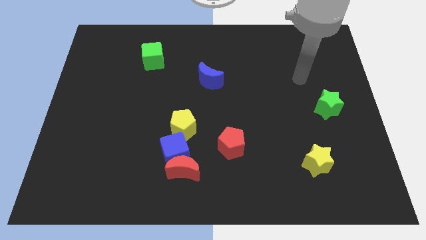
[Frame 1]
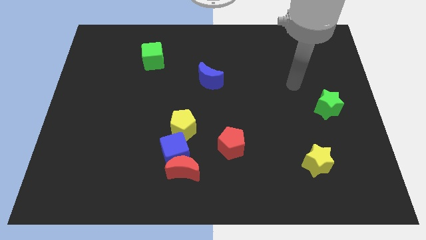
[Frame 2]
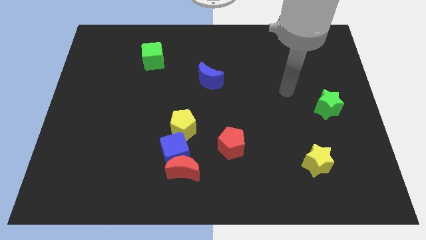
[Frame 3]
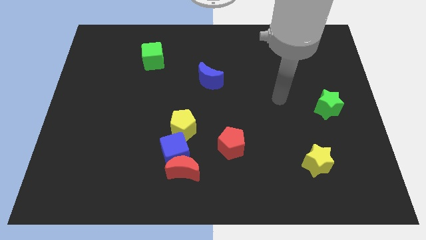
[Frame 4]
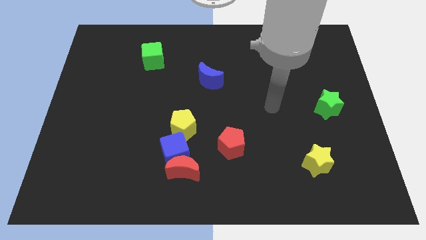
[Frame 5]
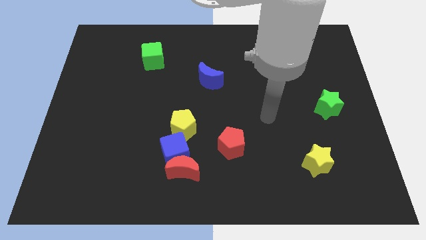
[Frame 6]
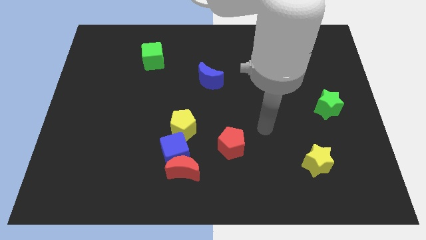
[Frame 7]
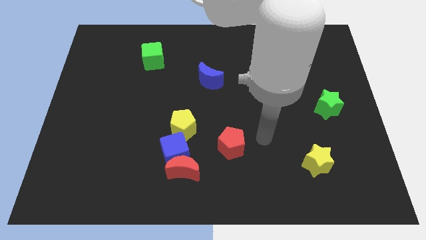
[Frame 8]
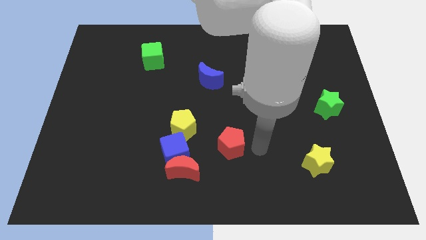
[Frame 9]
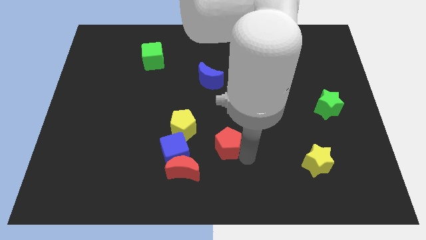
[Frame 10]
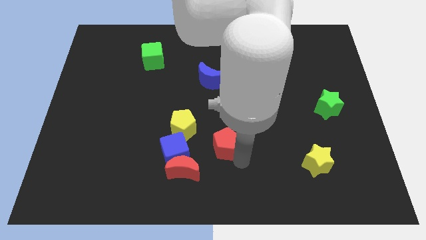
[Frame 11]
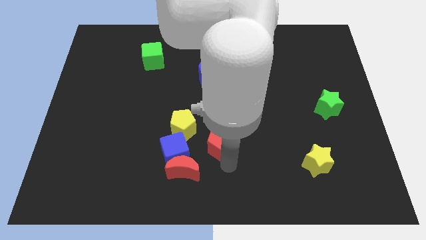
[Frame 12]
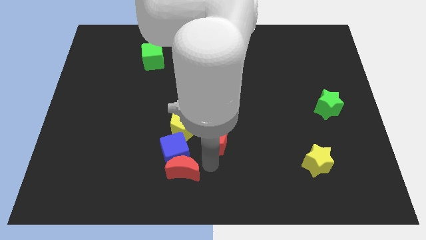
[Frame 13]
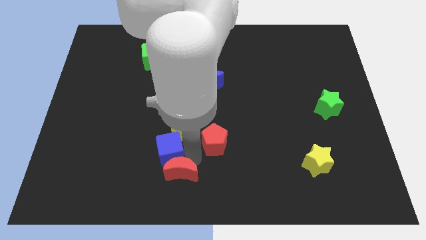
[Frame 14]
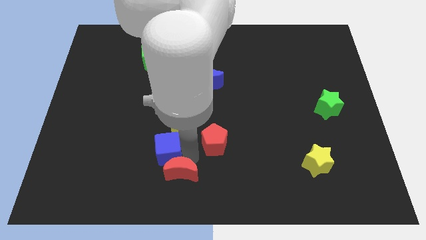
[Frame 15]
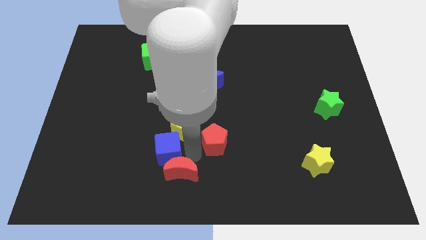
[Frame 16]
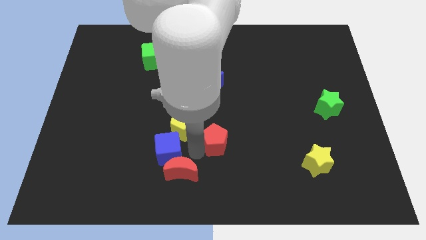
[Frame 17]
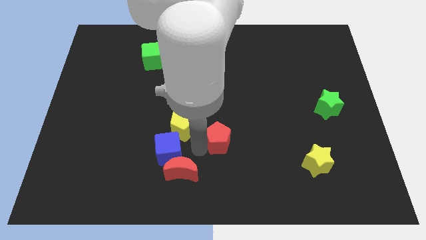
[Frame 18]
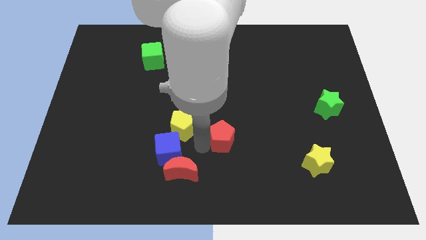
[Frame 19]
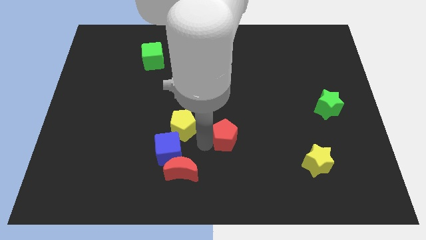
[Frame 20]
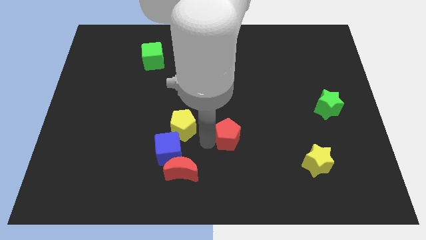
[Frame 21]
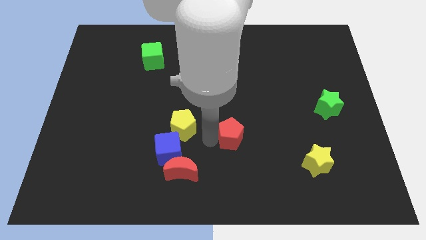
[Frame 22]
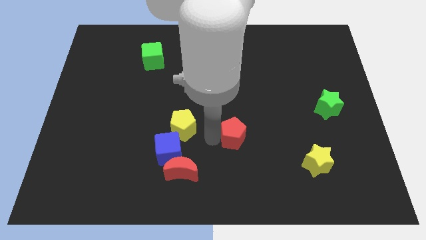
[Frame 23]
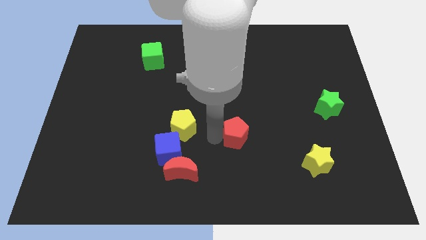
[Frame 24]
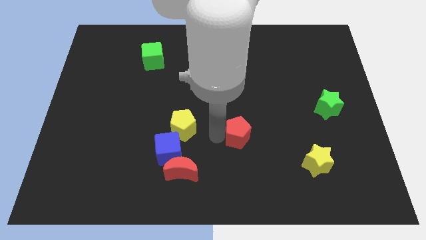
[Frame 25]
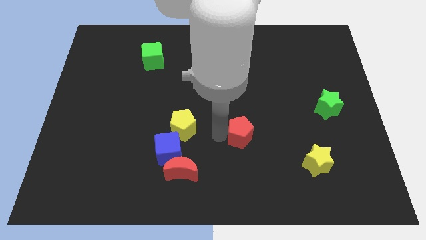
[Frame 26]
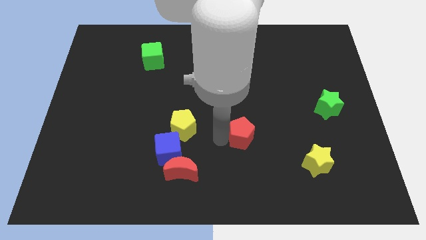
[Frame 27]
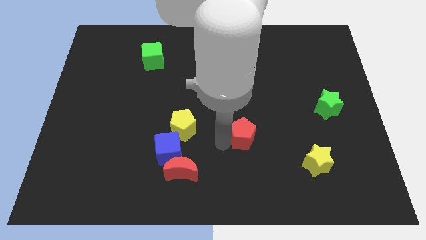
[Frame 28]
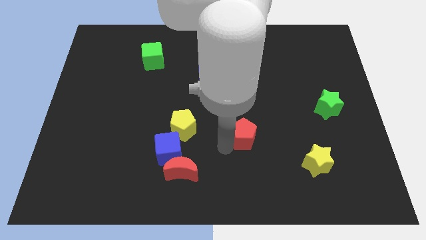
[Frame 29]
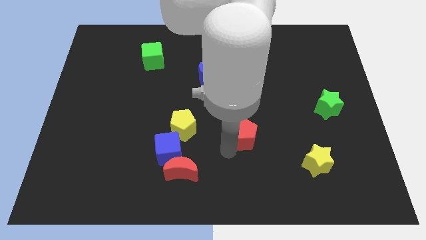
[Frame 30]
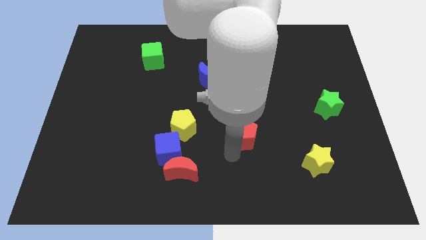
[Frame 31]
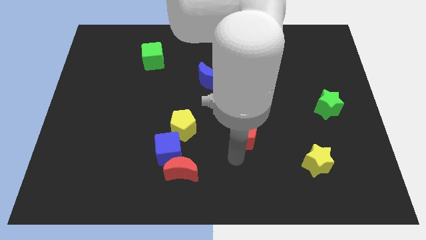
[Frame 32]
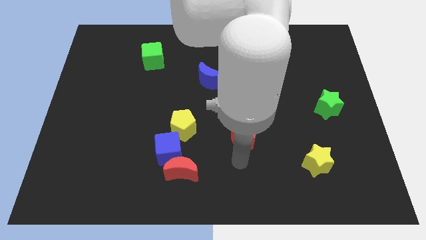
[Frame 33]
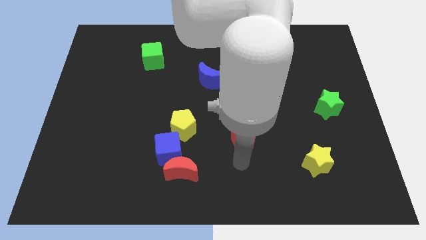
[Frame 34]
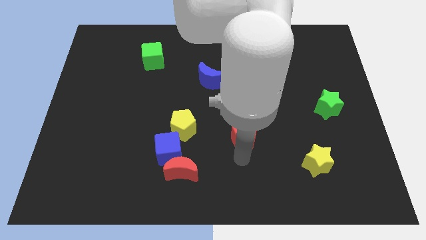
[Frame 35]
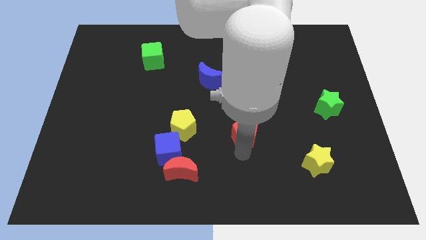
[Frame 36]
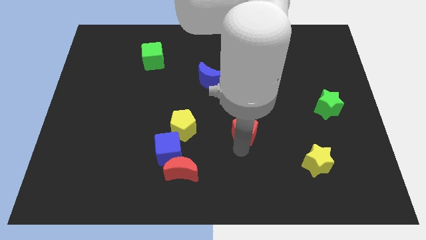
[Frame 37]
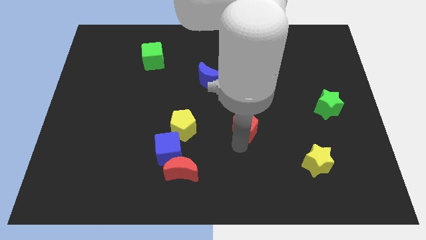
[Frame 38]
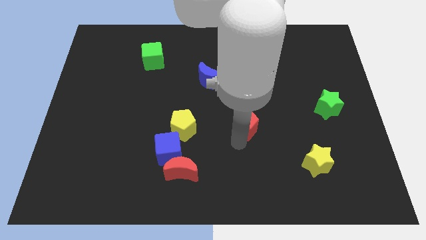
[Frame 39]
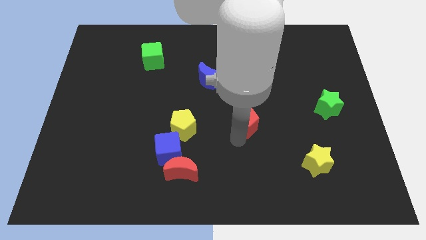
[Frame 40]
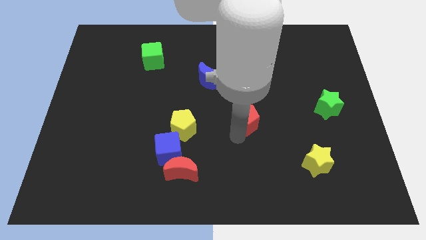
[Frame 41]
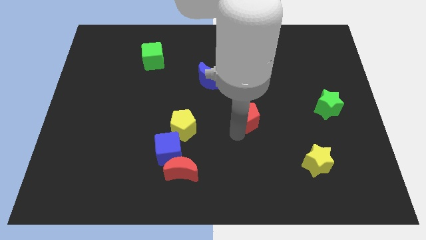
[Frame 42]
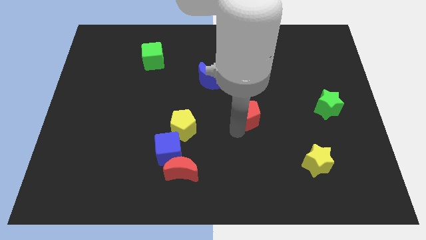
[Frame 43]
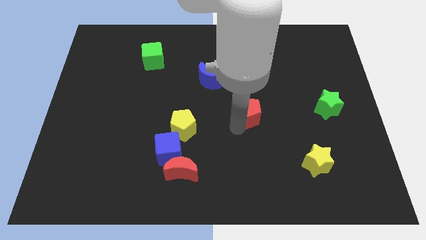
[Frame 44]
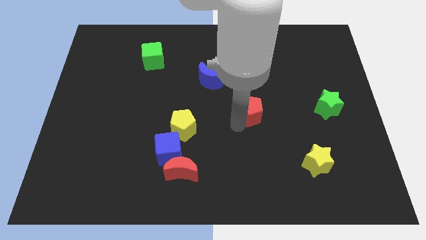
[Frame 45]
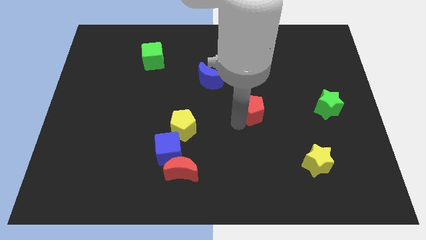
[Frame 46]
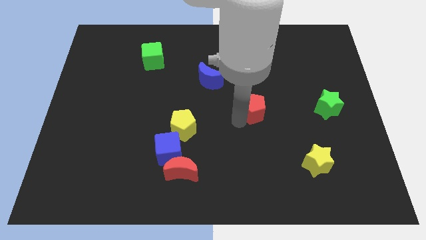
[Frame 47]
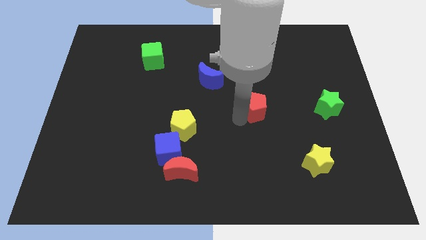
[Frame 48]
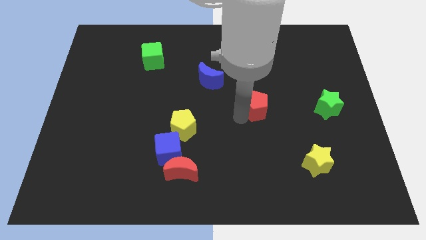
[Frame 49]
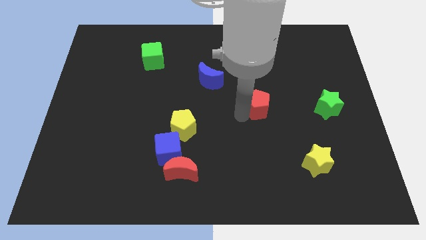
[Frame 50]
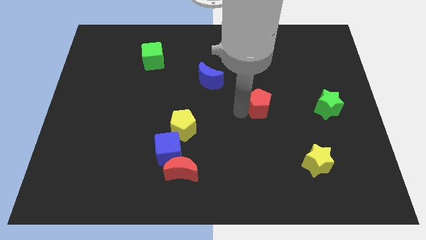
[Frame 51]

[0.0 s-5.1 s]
push the red pentagon to the left side of the green star

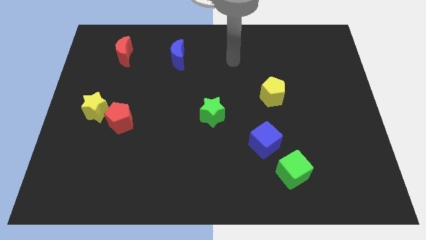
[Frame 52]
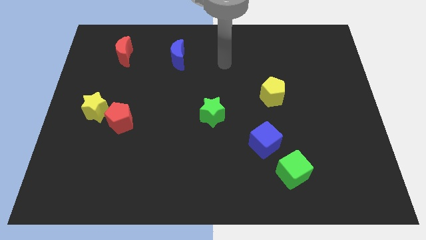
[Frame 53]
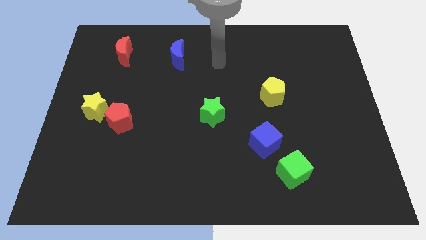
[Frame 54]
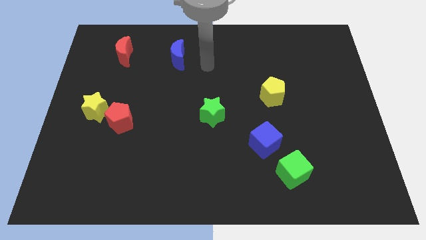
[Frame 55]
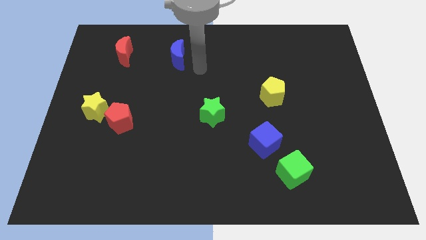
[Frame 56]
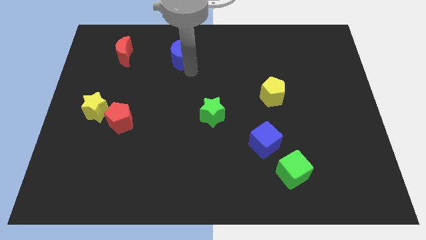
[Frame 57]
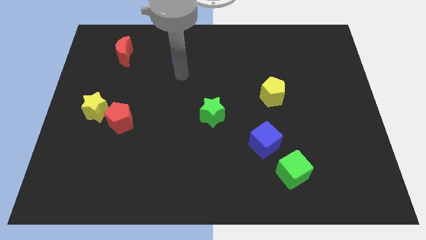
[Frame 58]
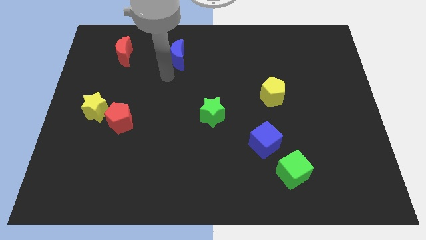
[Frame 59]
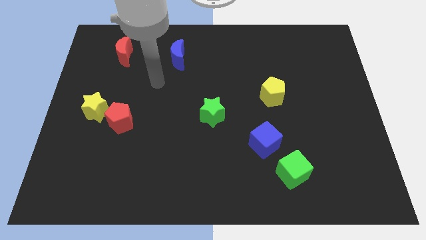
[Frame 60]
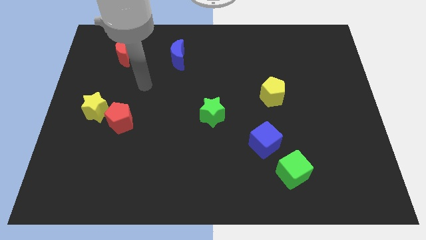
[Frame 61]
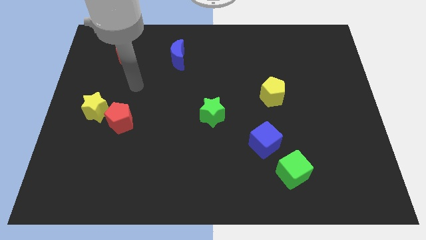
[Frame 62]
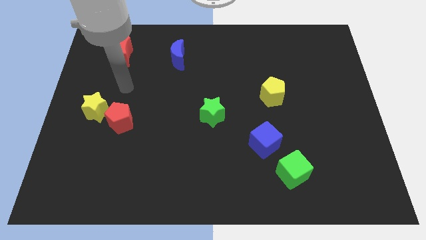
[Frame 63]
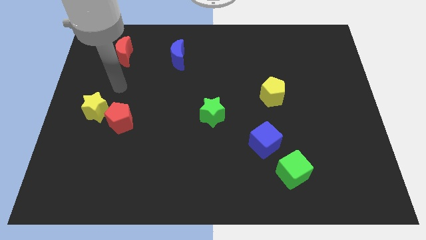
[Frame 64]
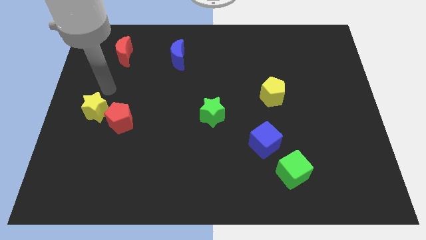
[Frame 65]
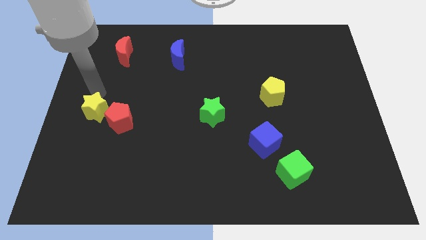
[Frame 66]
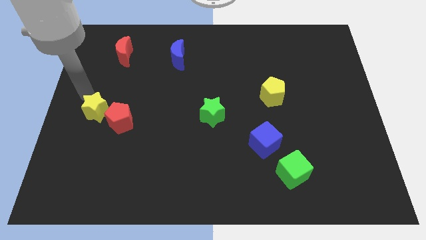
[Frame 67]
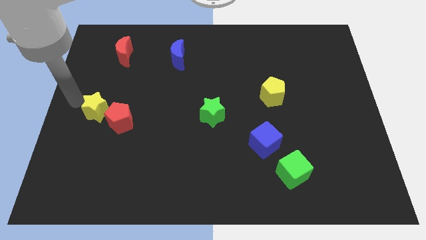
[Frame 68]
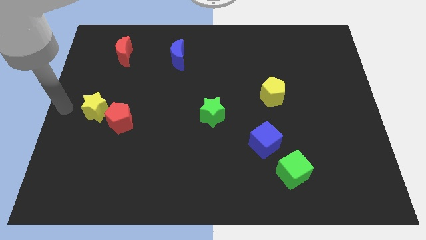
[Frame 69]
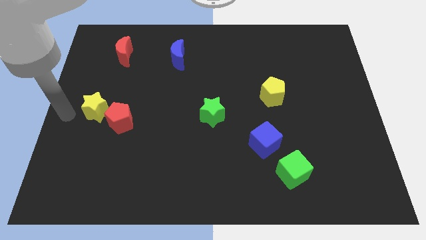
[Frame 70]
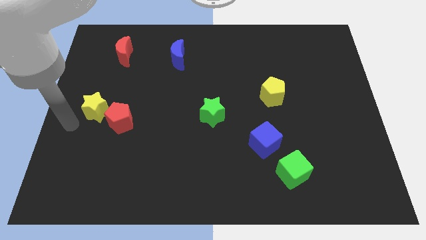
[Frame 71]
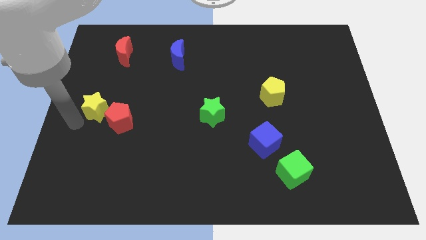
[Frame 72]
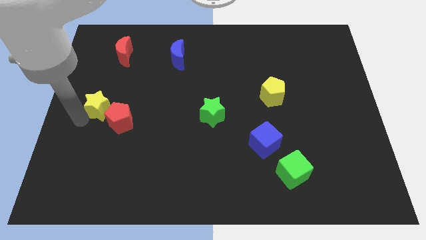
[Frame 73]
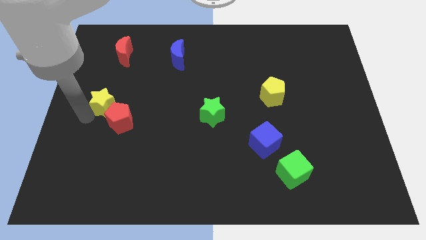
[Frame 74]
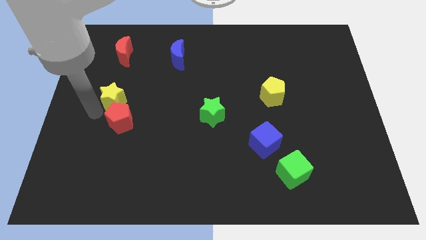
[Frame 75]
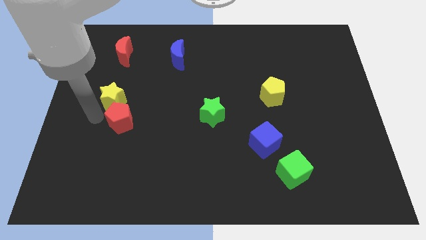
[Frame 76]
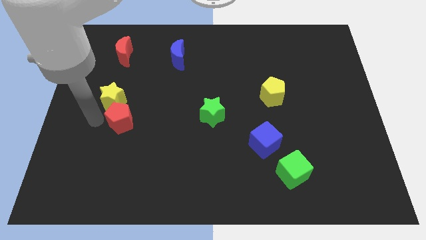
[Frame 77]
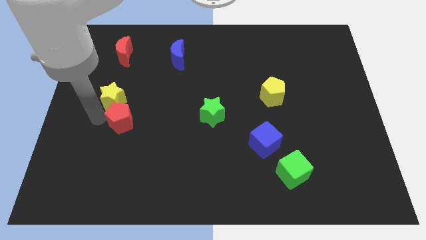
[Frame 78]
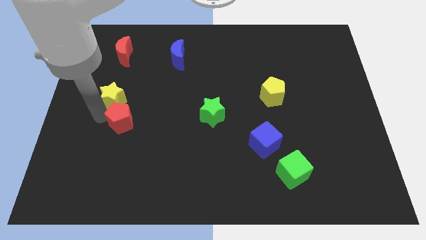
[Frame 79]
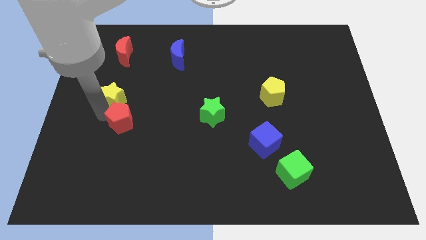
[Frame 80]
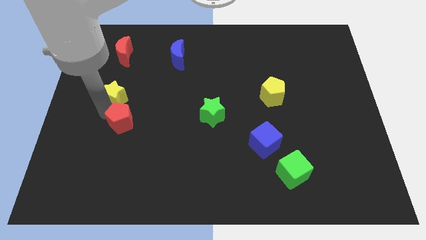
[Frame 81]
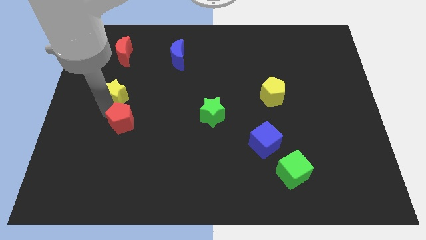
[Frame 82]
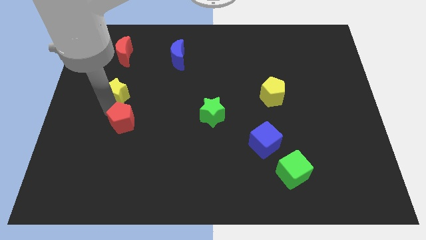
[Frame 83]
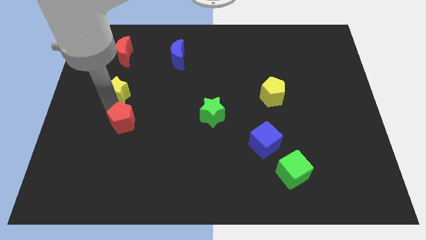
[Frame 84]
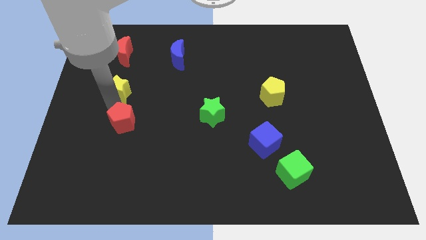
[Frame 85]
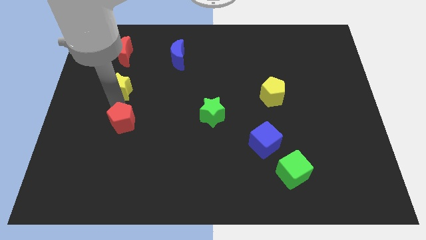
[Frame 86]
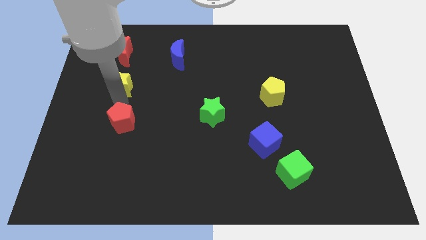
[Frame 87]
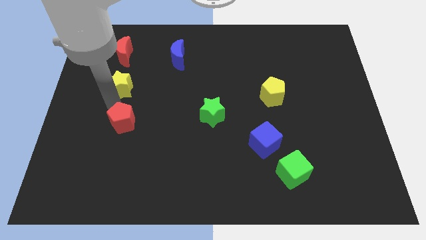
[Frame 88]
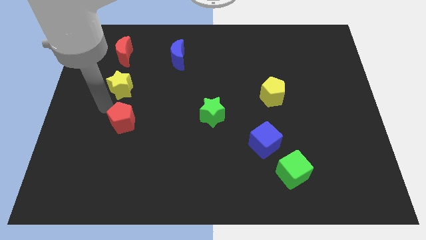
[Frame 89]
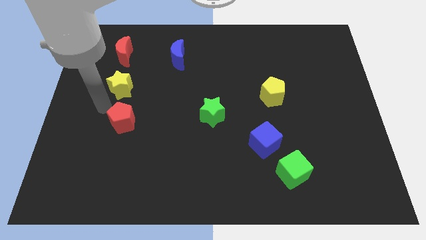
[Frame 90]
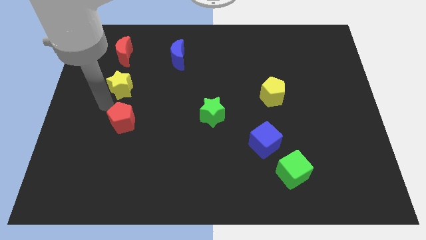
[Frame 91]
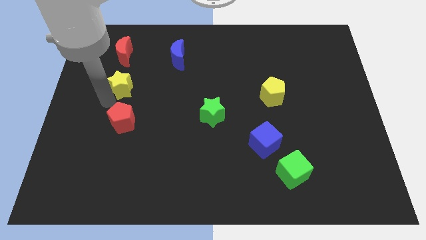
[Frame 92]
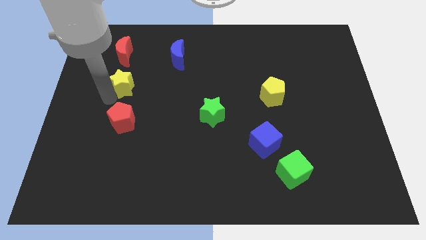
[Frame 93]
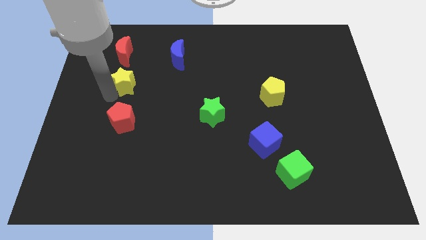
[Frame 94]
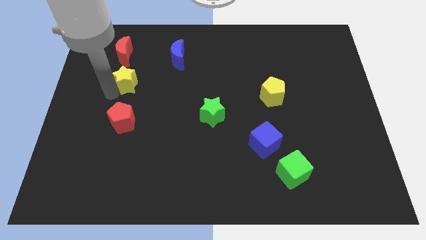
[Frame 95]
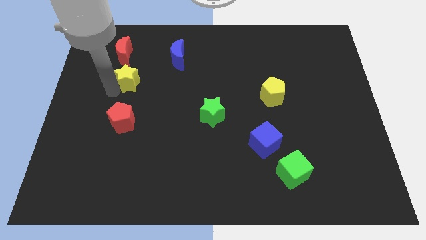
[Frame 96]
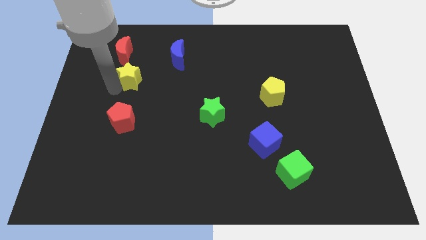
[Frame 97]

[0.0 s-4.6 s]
push the yellow star to the bottom right side of the red moon
